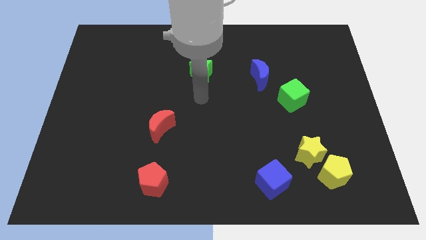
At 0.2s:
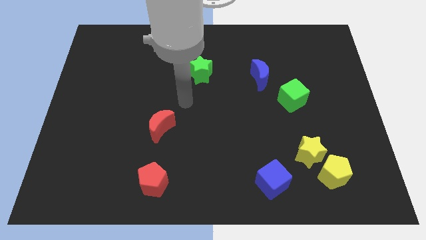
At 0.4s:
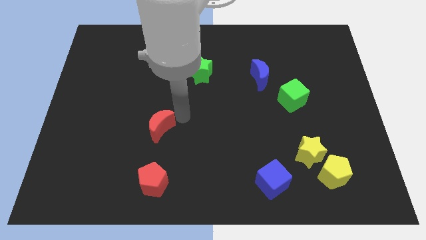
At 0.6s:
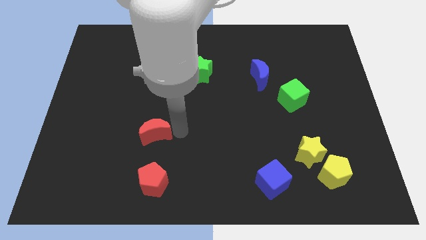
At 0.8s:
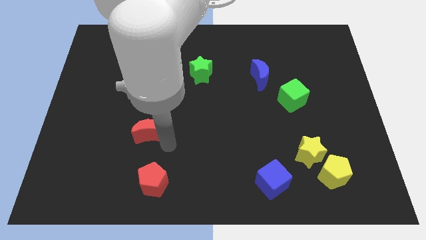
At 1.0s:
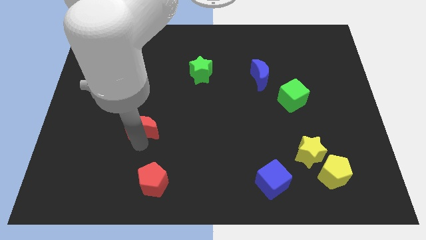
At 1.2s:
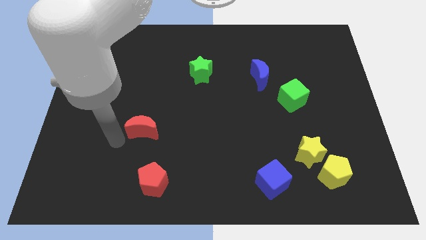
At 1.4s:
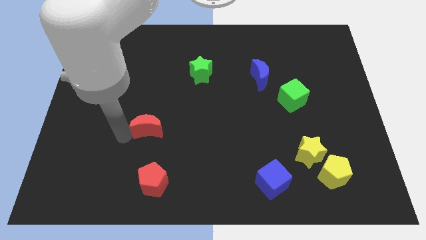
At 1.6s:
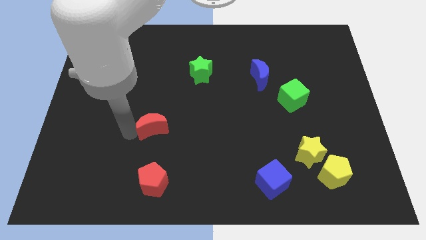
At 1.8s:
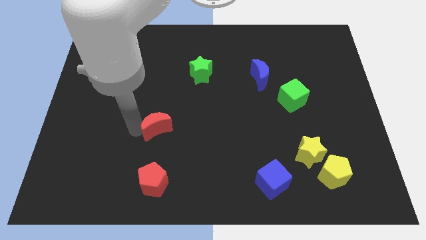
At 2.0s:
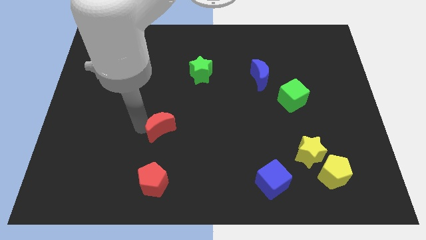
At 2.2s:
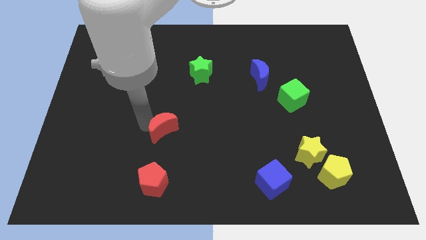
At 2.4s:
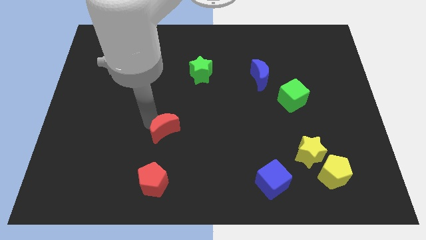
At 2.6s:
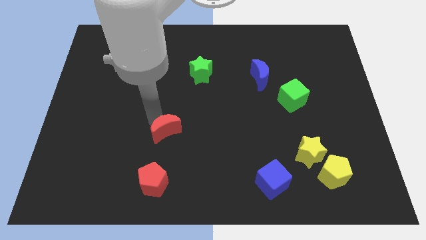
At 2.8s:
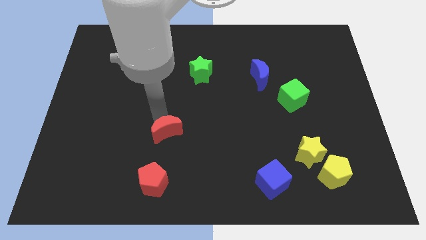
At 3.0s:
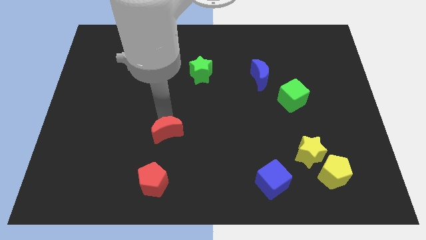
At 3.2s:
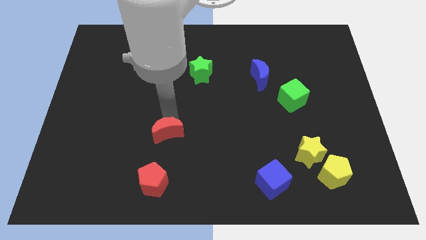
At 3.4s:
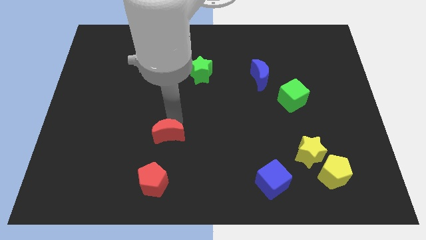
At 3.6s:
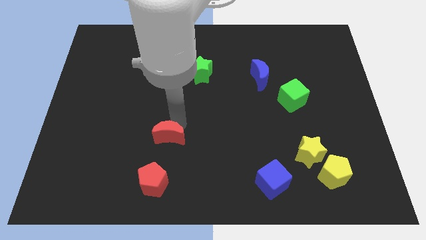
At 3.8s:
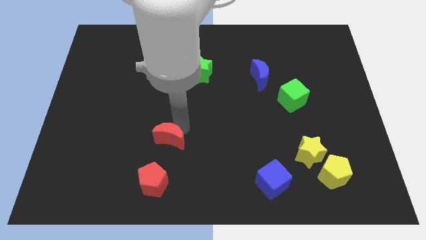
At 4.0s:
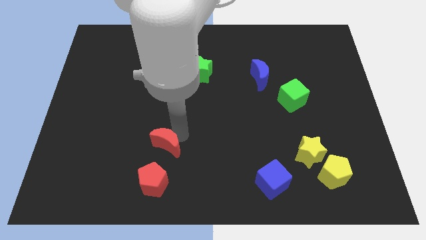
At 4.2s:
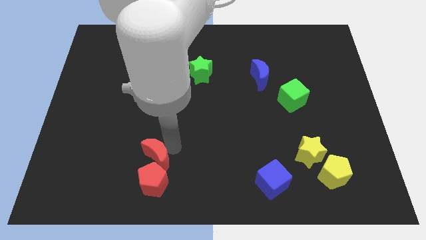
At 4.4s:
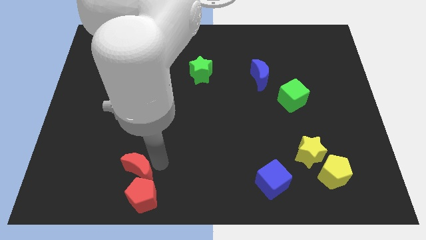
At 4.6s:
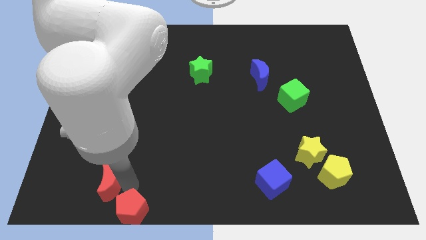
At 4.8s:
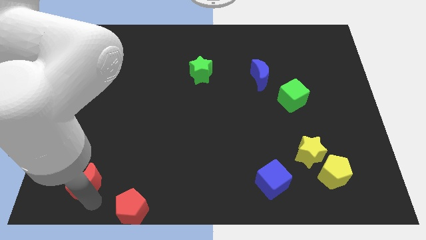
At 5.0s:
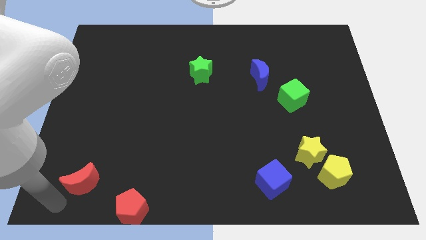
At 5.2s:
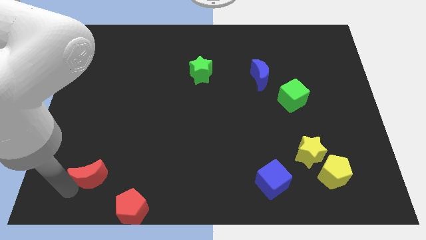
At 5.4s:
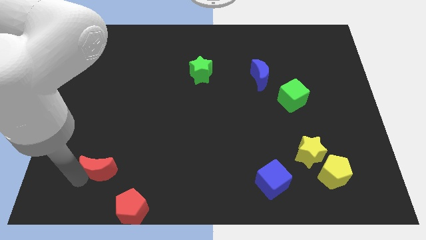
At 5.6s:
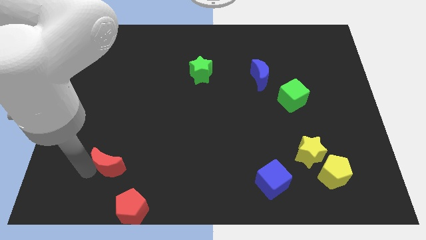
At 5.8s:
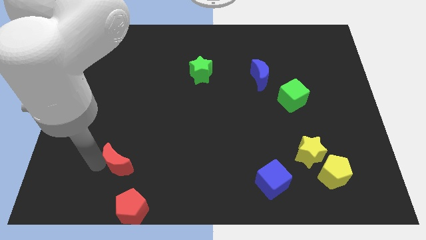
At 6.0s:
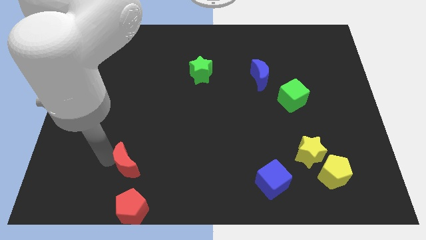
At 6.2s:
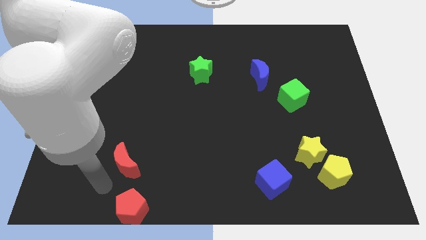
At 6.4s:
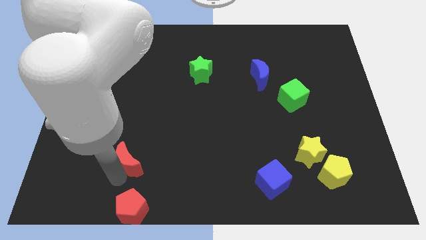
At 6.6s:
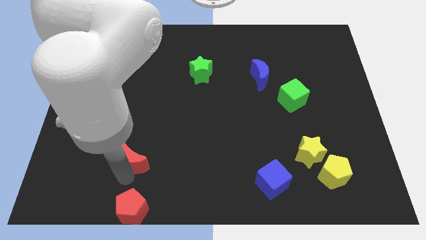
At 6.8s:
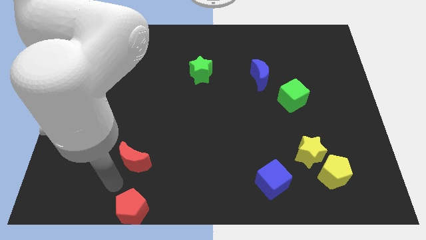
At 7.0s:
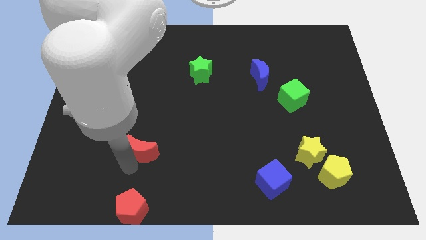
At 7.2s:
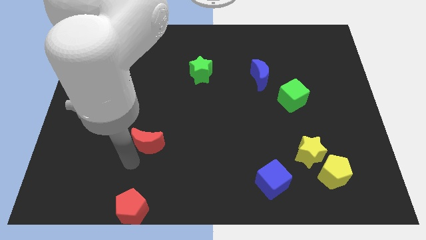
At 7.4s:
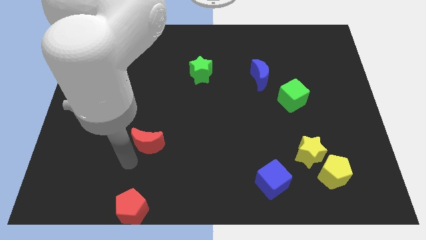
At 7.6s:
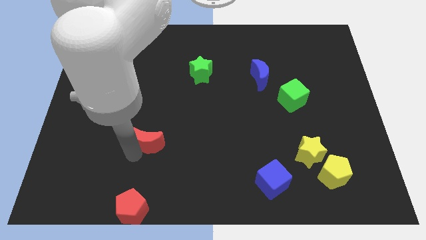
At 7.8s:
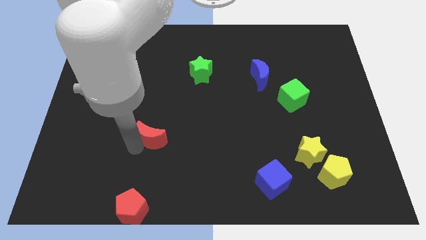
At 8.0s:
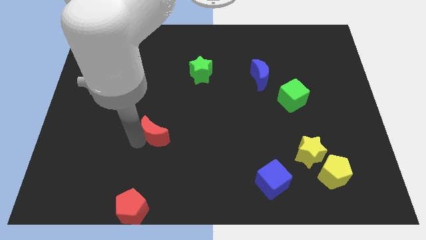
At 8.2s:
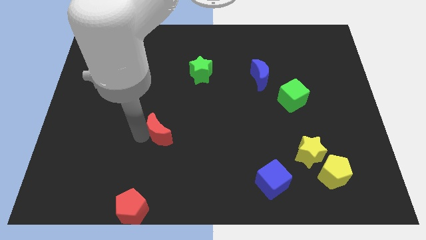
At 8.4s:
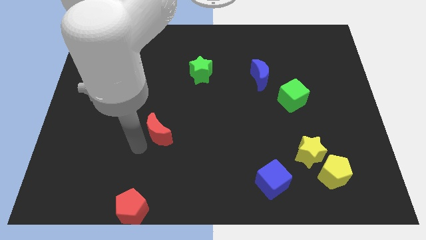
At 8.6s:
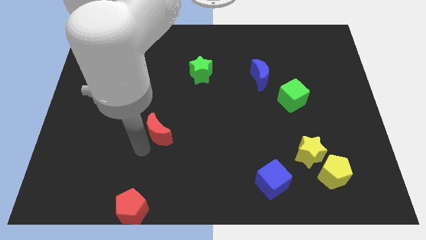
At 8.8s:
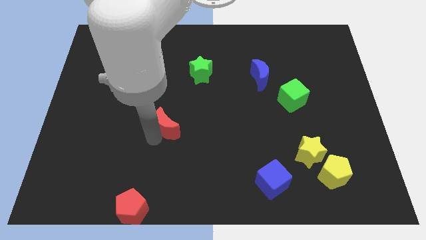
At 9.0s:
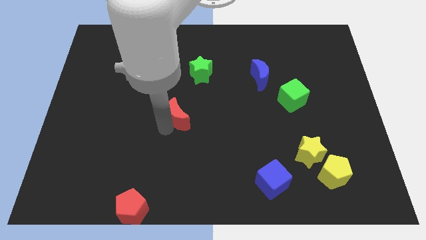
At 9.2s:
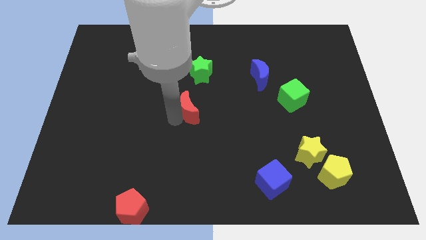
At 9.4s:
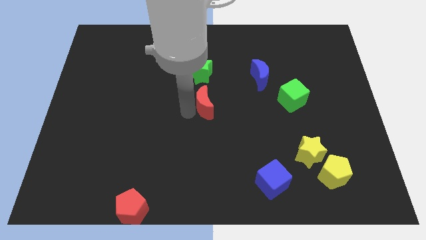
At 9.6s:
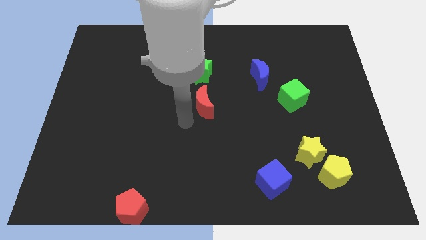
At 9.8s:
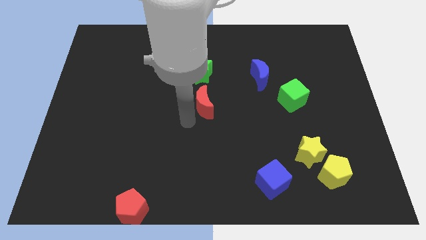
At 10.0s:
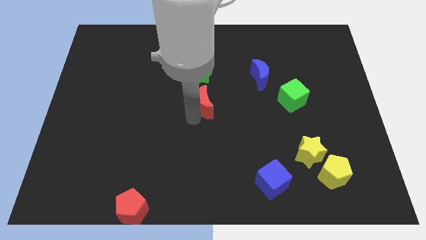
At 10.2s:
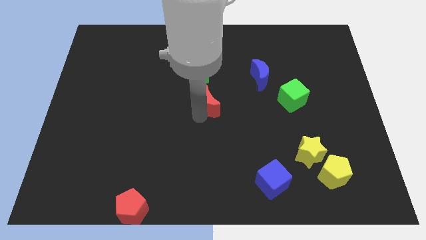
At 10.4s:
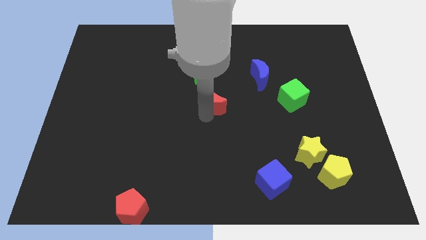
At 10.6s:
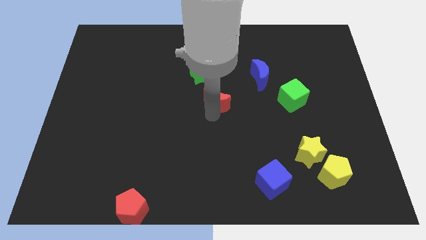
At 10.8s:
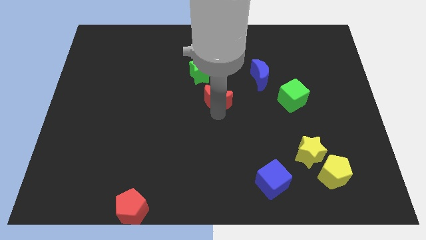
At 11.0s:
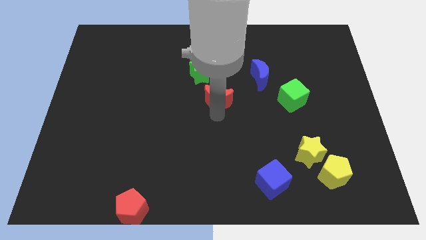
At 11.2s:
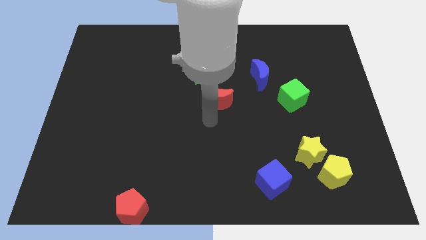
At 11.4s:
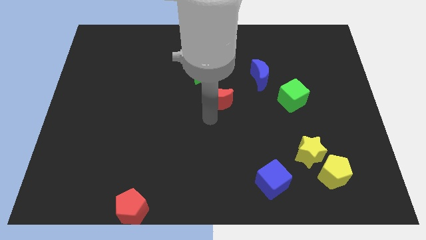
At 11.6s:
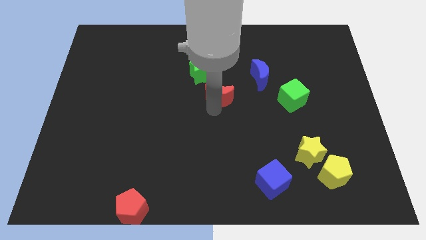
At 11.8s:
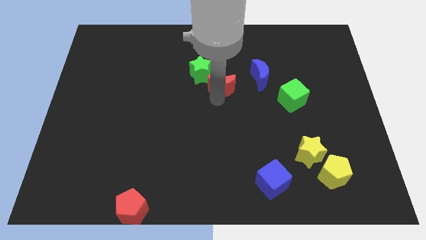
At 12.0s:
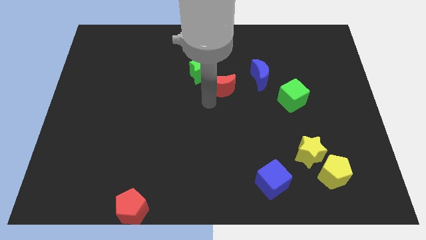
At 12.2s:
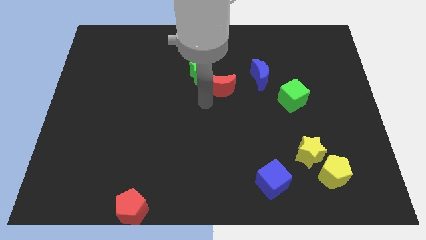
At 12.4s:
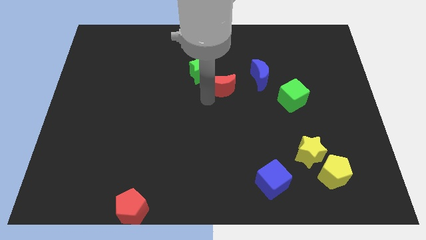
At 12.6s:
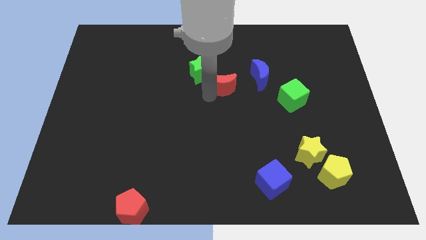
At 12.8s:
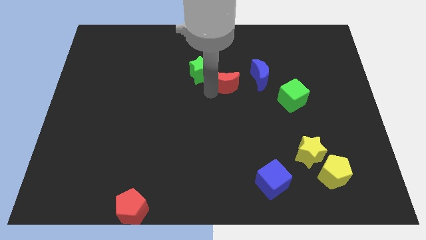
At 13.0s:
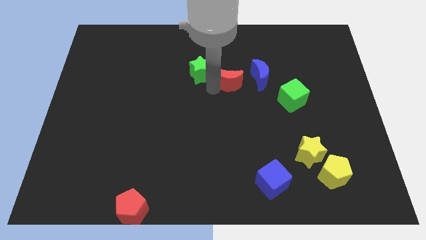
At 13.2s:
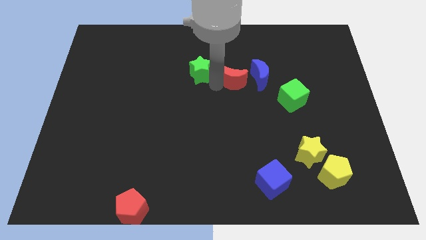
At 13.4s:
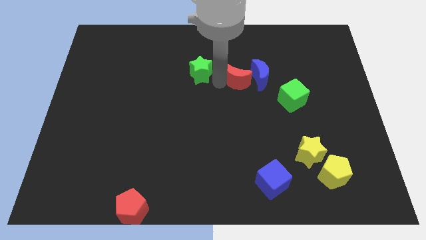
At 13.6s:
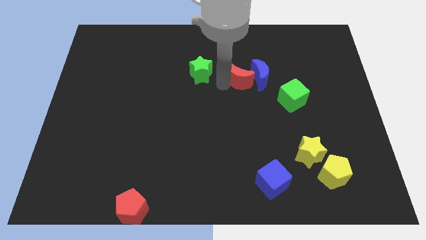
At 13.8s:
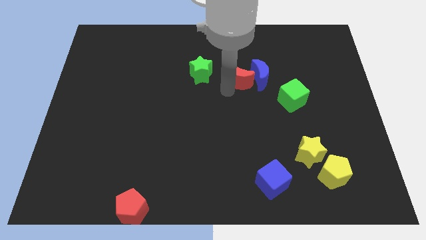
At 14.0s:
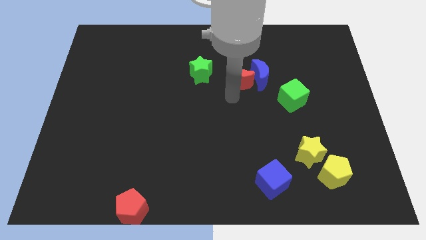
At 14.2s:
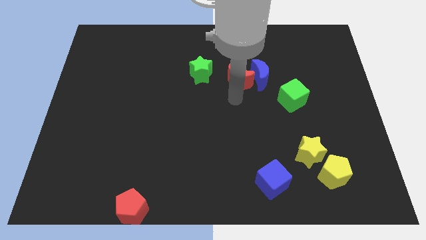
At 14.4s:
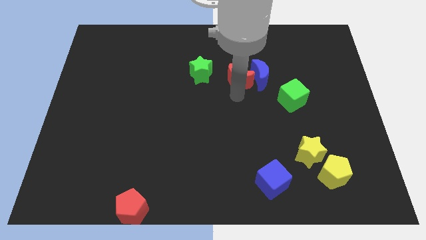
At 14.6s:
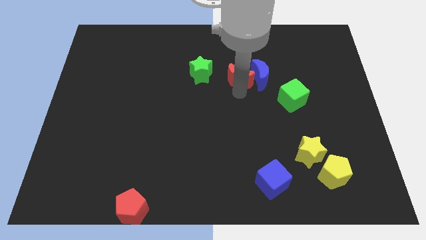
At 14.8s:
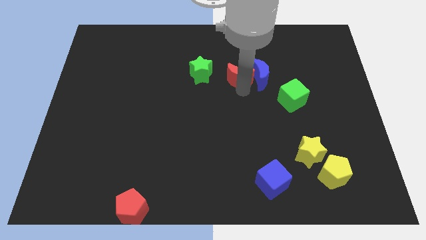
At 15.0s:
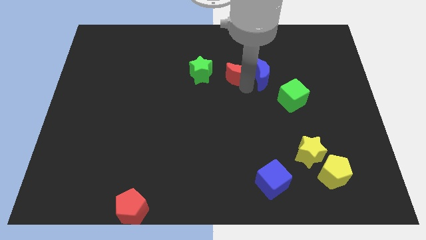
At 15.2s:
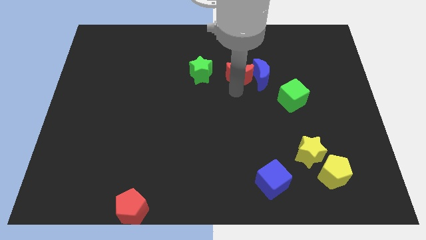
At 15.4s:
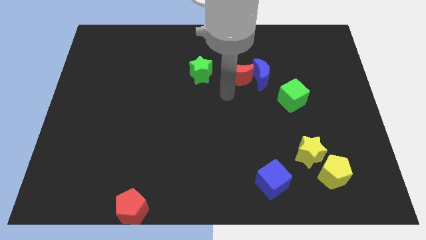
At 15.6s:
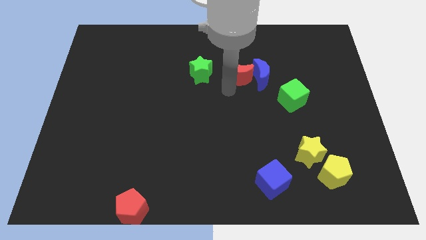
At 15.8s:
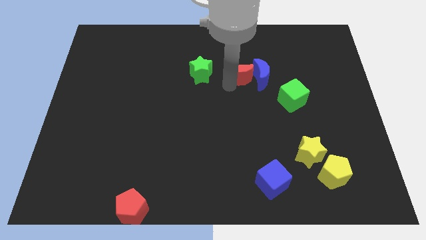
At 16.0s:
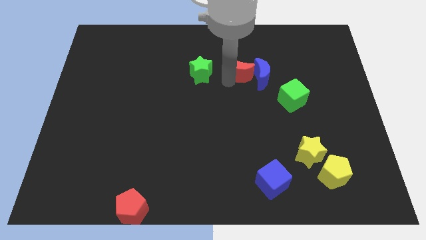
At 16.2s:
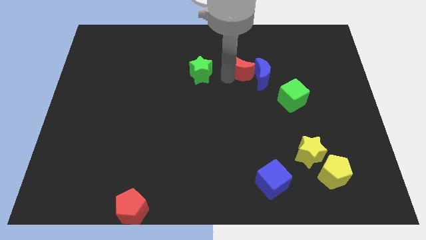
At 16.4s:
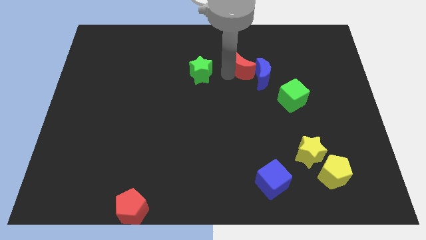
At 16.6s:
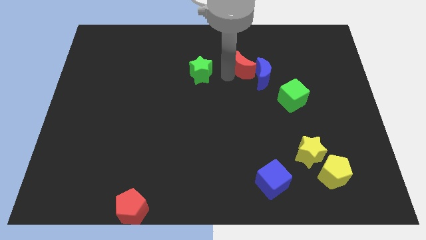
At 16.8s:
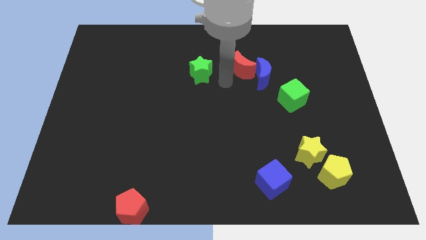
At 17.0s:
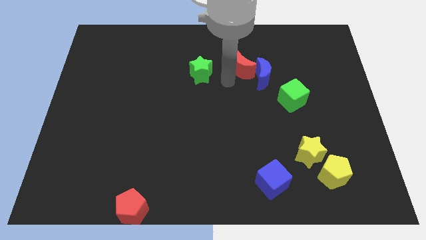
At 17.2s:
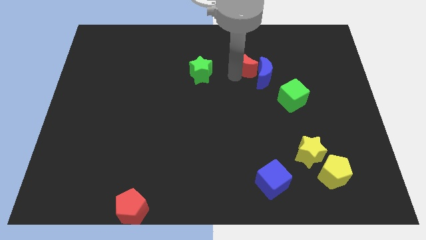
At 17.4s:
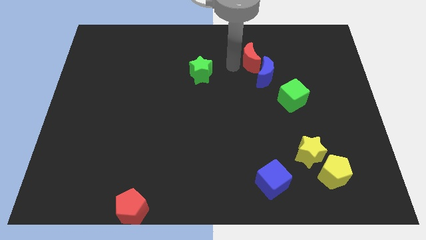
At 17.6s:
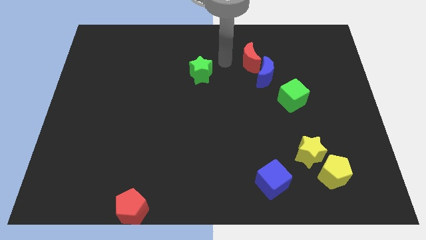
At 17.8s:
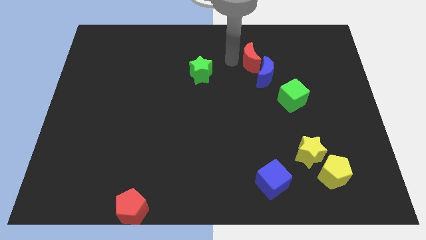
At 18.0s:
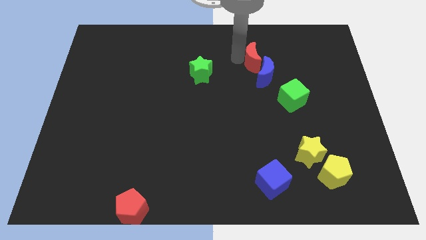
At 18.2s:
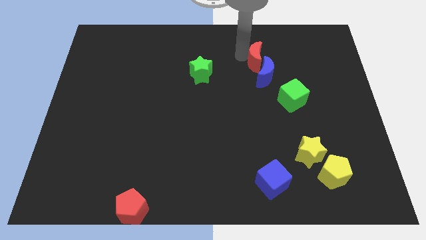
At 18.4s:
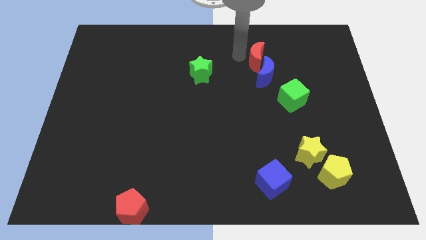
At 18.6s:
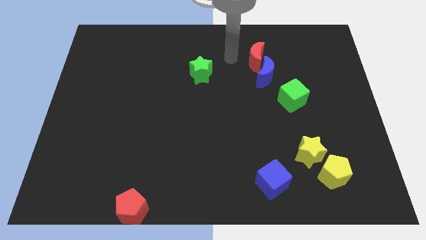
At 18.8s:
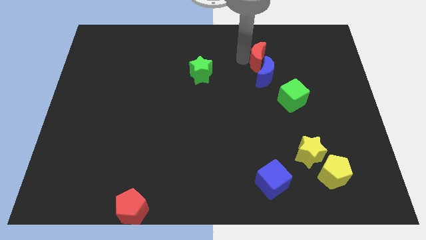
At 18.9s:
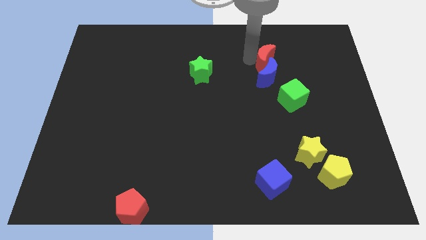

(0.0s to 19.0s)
push the red moon to the top right side of the blue moon
